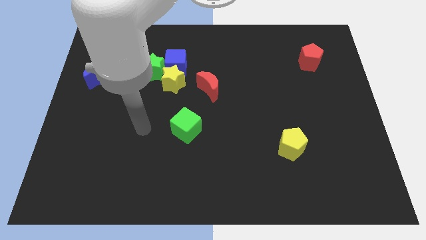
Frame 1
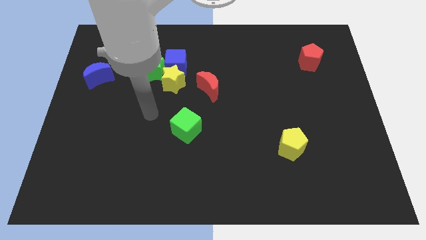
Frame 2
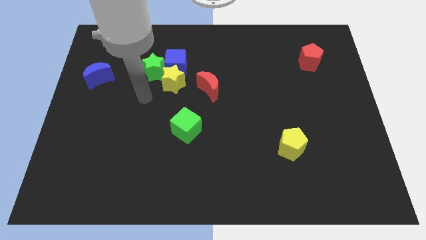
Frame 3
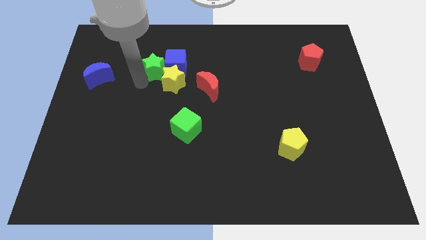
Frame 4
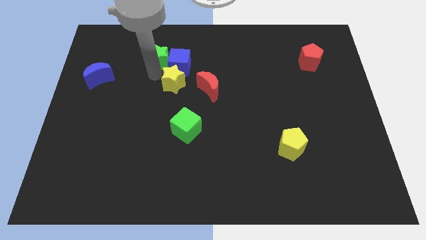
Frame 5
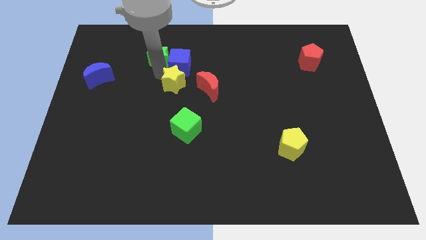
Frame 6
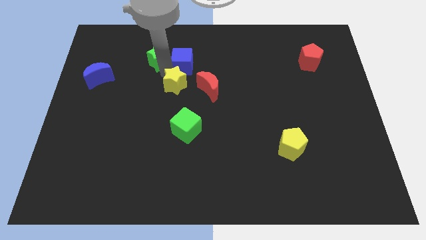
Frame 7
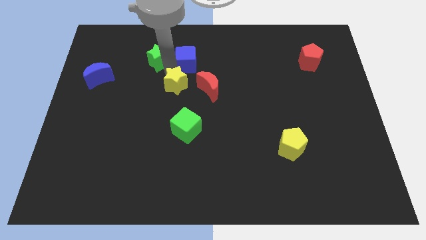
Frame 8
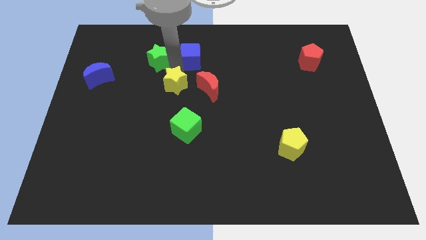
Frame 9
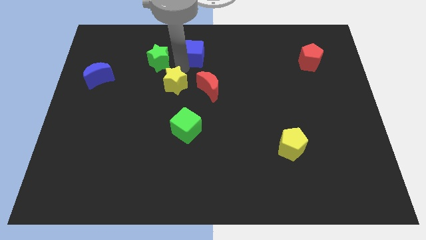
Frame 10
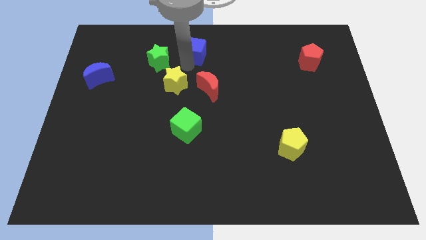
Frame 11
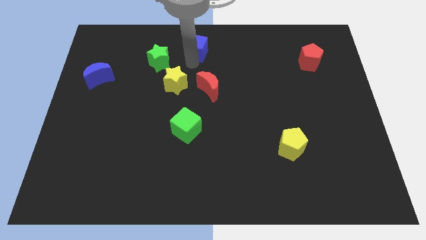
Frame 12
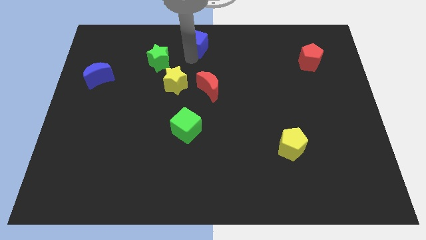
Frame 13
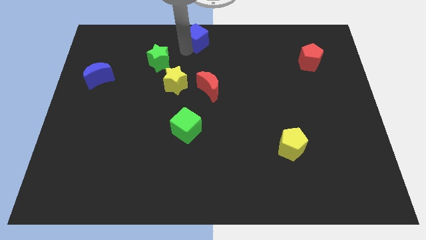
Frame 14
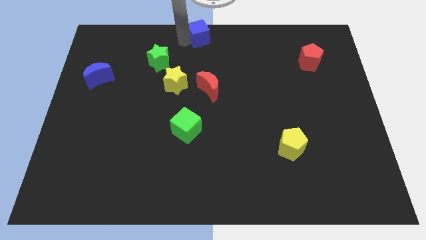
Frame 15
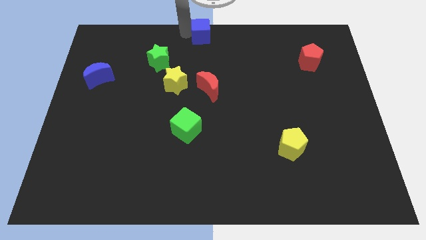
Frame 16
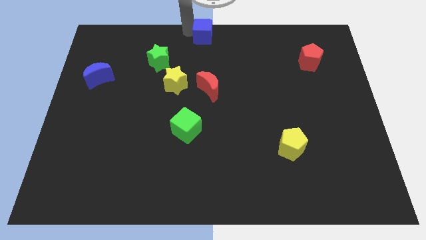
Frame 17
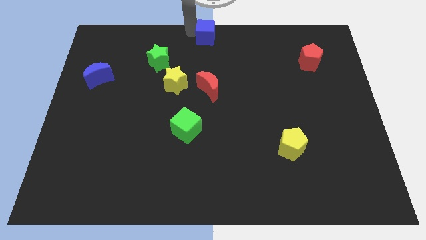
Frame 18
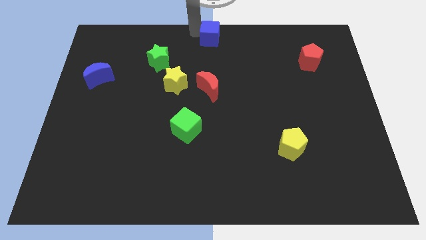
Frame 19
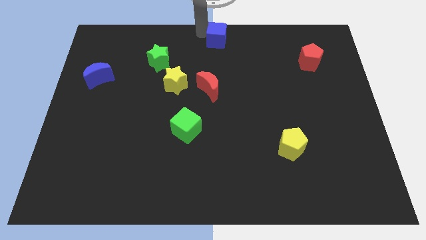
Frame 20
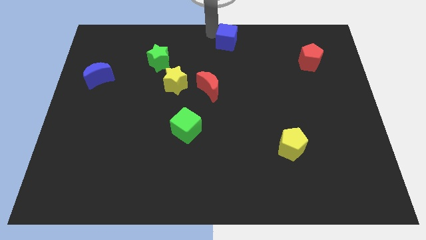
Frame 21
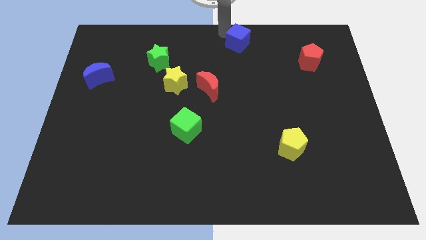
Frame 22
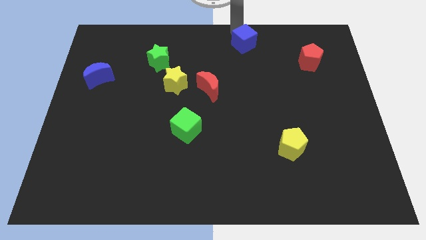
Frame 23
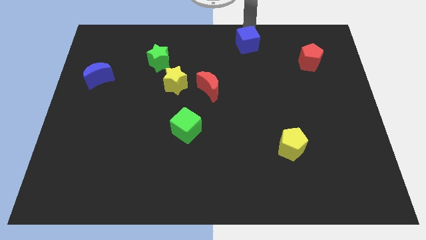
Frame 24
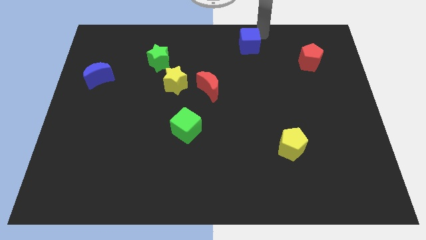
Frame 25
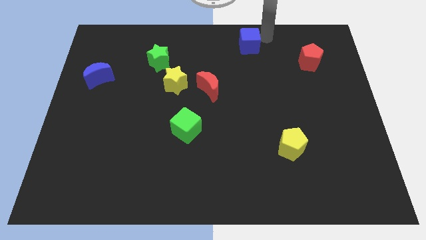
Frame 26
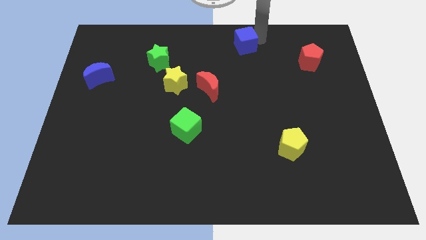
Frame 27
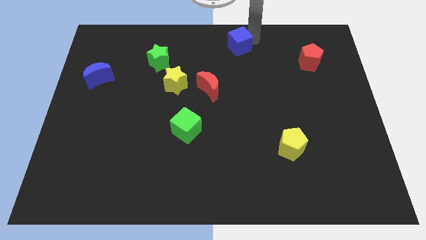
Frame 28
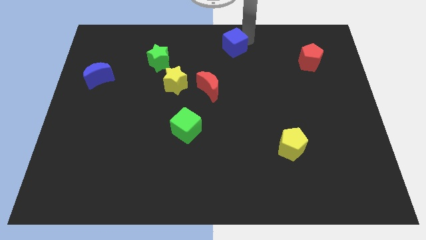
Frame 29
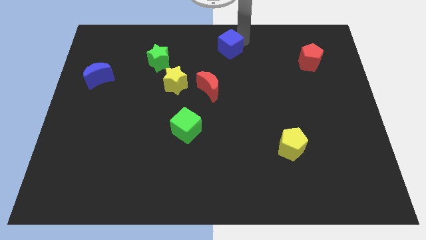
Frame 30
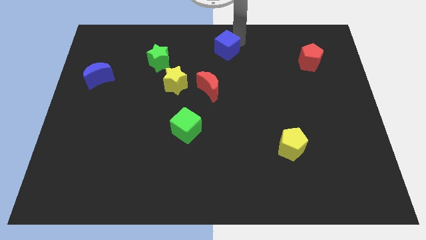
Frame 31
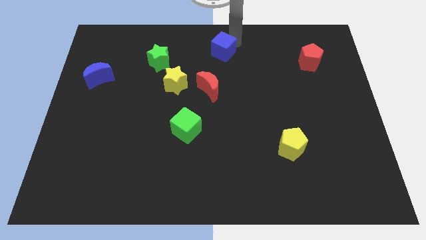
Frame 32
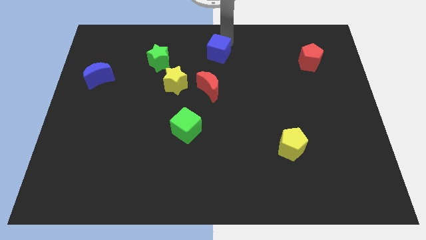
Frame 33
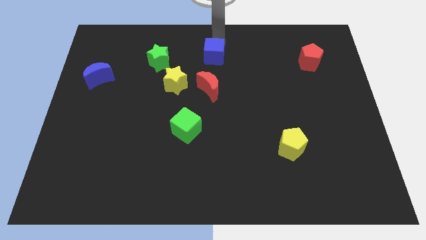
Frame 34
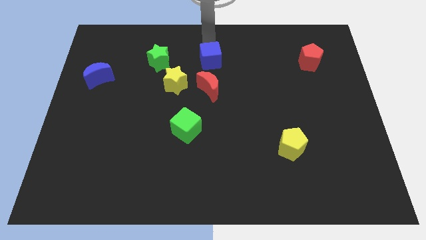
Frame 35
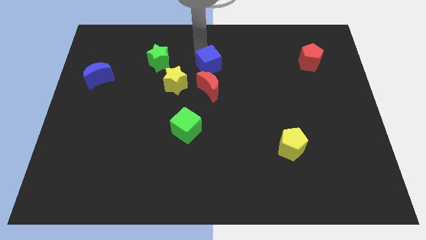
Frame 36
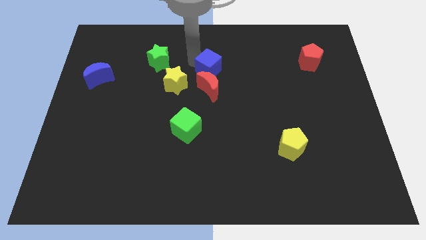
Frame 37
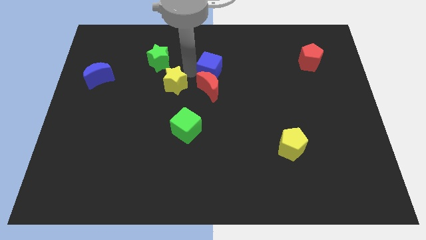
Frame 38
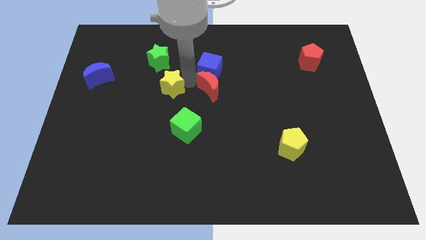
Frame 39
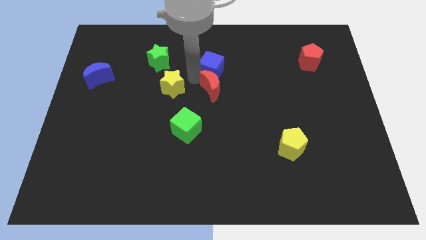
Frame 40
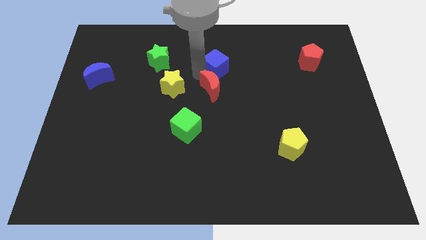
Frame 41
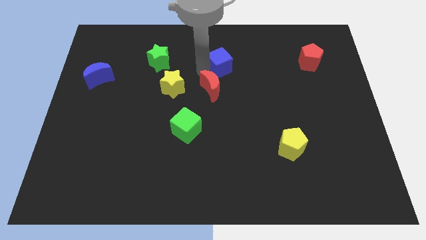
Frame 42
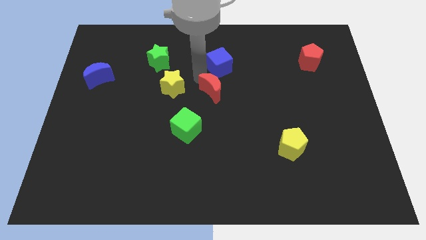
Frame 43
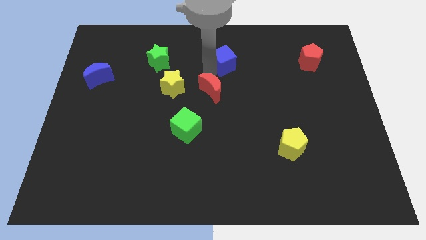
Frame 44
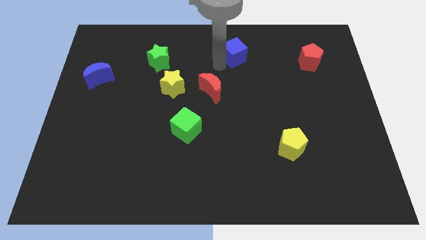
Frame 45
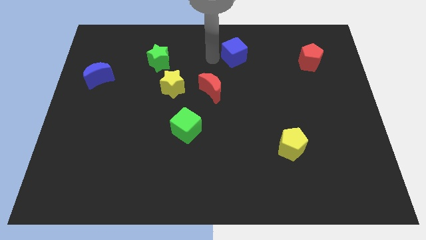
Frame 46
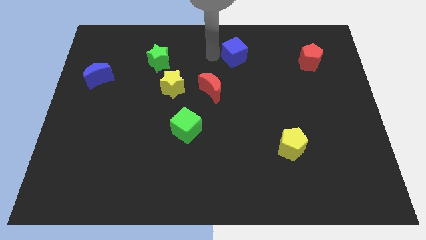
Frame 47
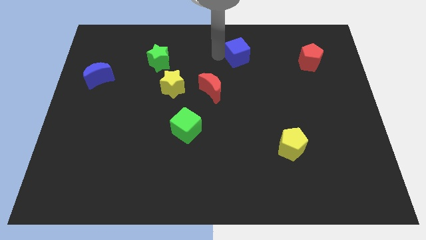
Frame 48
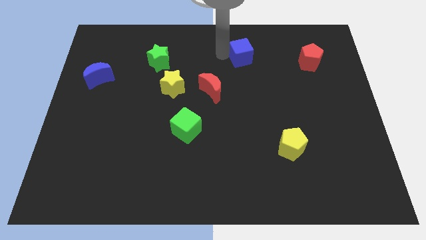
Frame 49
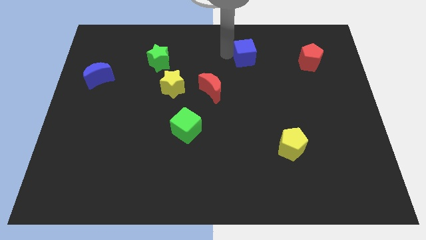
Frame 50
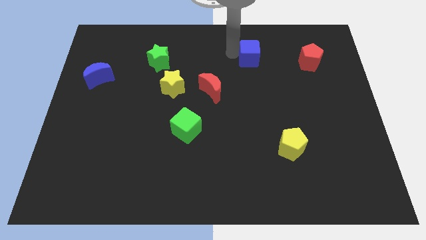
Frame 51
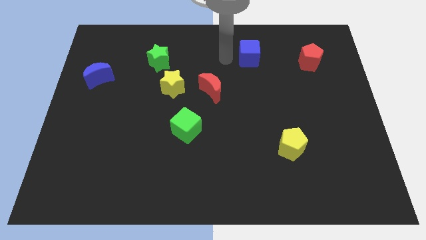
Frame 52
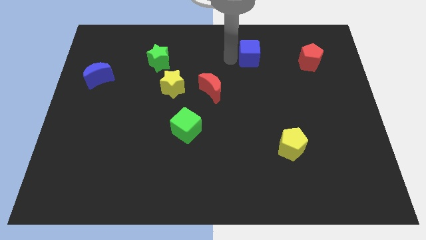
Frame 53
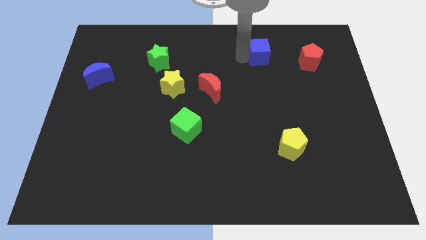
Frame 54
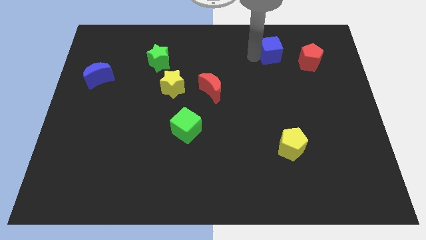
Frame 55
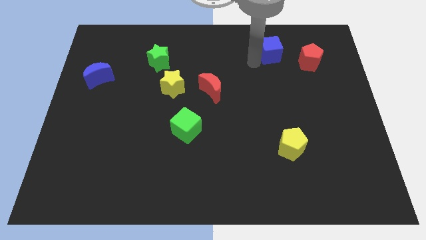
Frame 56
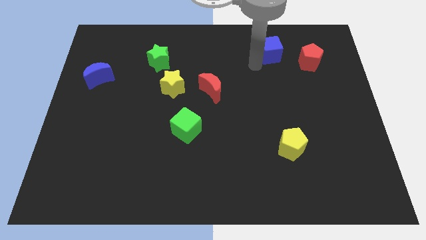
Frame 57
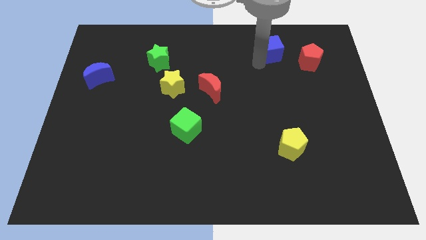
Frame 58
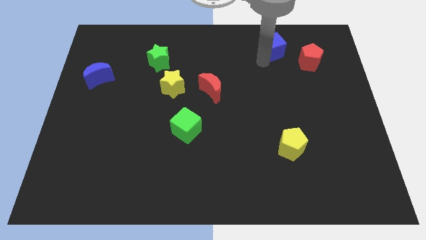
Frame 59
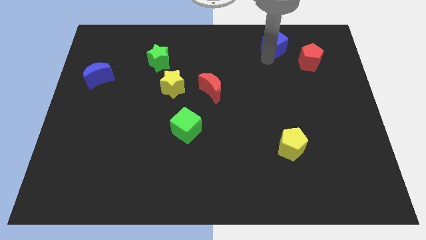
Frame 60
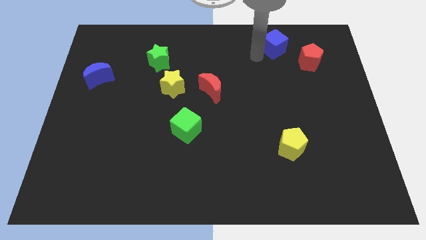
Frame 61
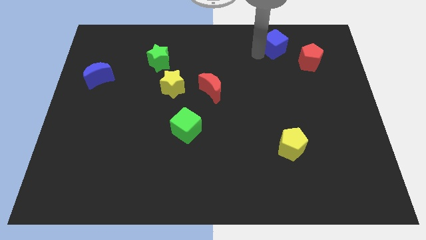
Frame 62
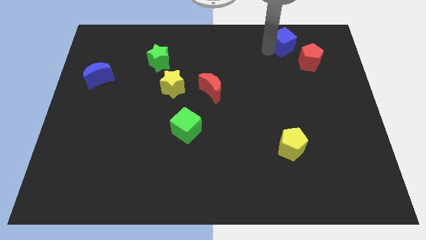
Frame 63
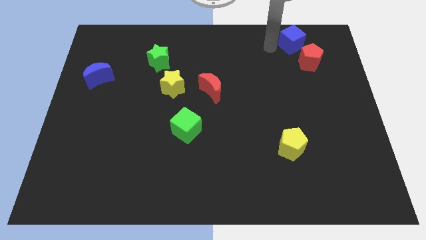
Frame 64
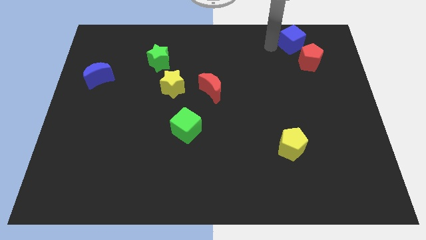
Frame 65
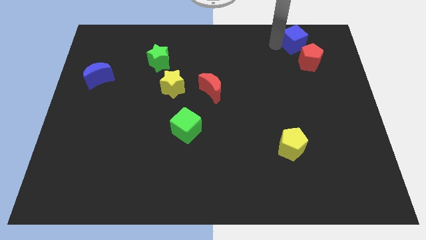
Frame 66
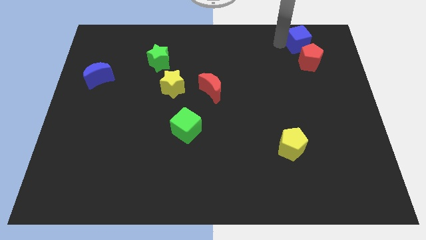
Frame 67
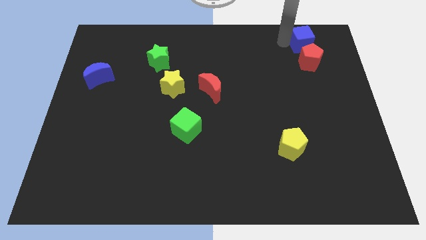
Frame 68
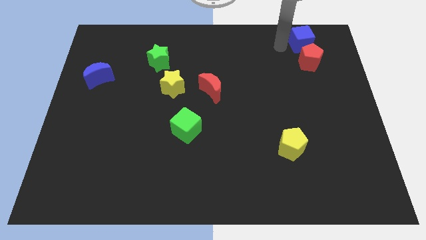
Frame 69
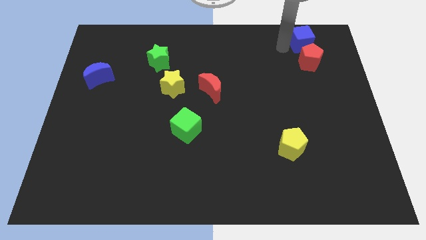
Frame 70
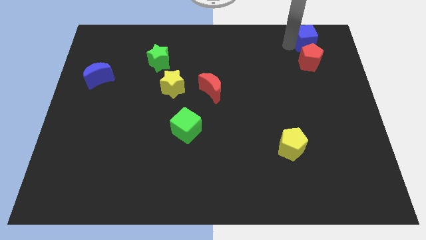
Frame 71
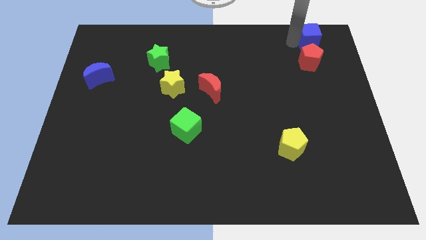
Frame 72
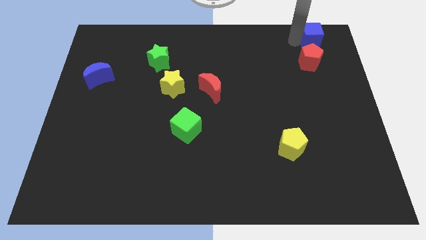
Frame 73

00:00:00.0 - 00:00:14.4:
move the blue cube to the upper right corner
